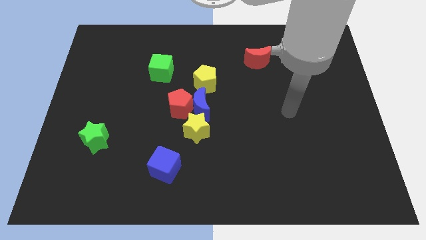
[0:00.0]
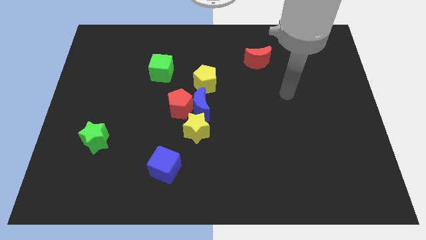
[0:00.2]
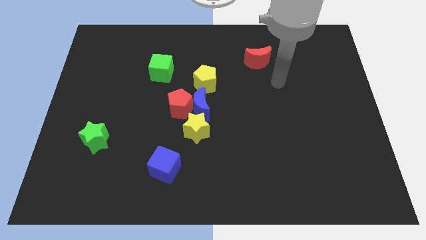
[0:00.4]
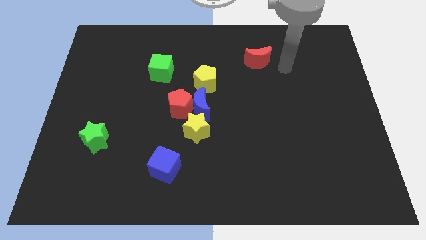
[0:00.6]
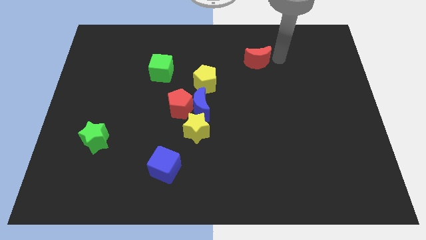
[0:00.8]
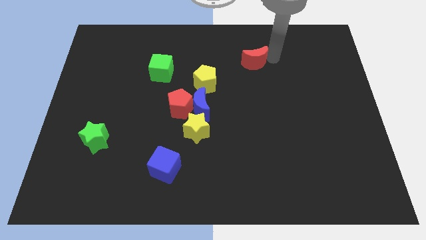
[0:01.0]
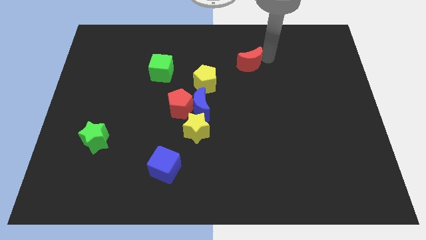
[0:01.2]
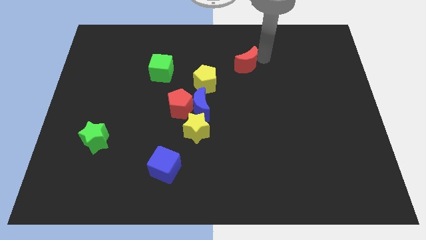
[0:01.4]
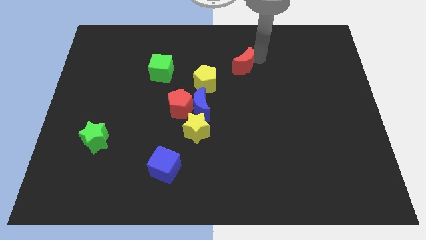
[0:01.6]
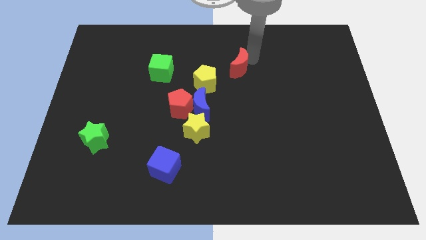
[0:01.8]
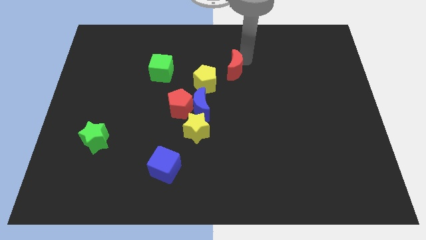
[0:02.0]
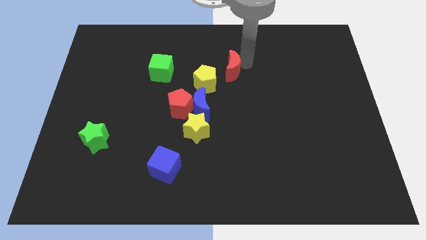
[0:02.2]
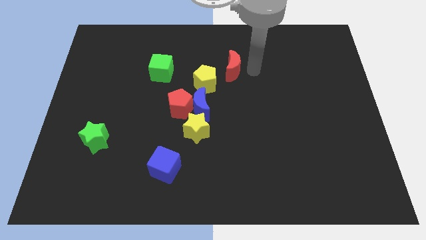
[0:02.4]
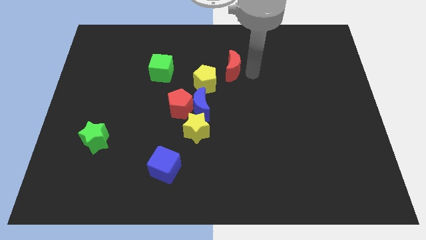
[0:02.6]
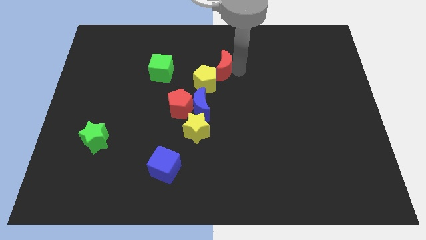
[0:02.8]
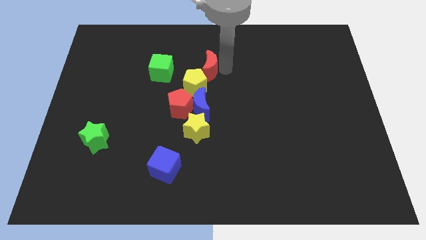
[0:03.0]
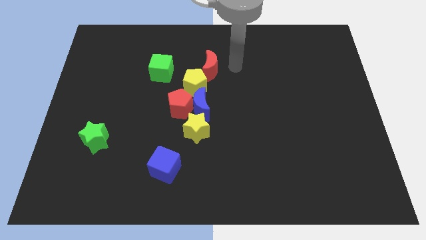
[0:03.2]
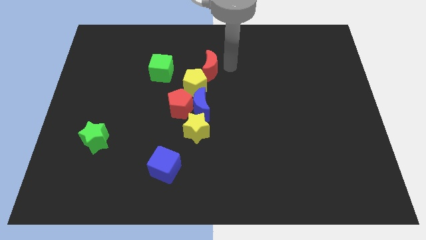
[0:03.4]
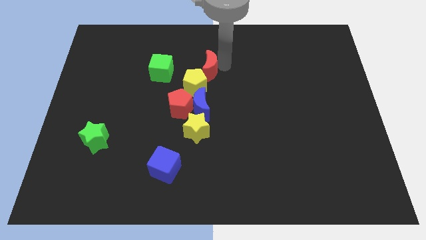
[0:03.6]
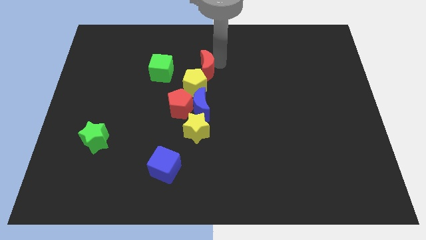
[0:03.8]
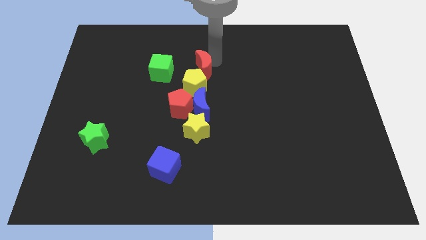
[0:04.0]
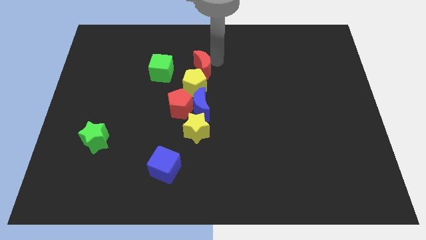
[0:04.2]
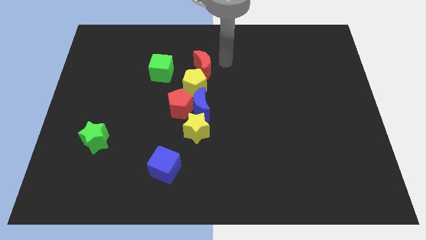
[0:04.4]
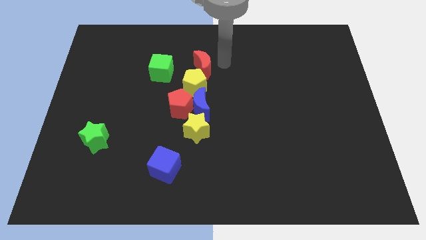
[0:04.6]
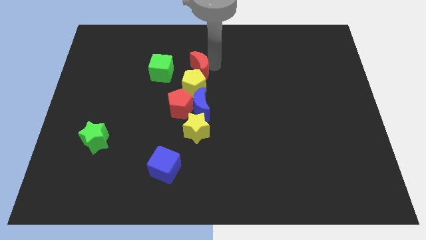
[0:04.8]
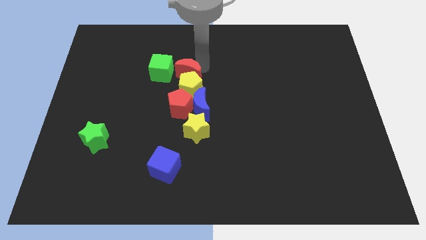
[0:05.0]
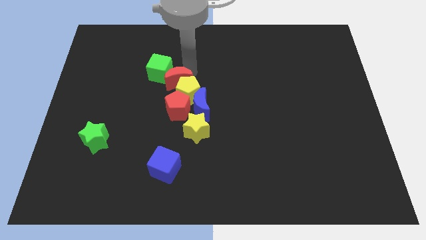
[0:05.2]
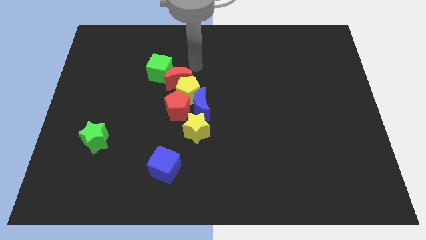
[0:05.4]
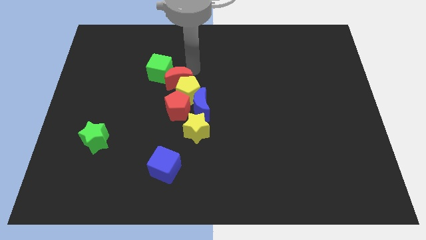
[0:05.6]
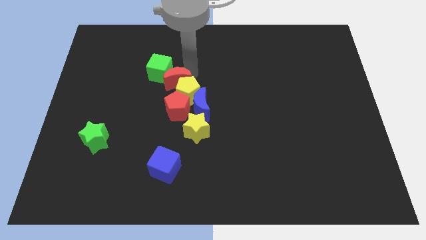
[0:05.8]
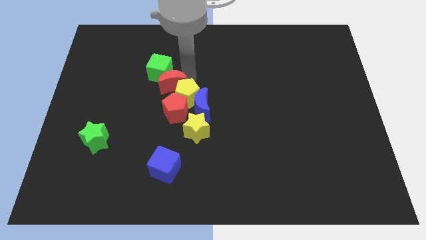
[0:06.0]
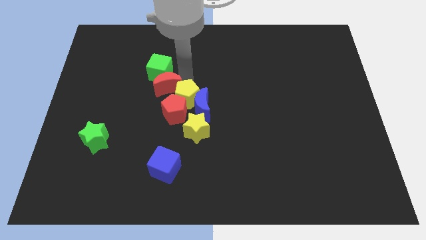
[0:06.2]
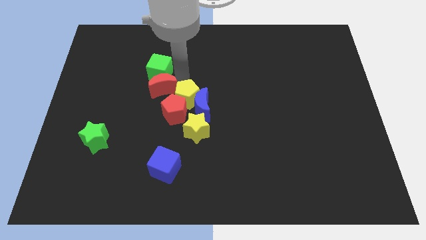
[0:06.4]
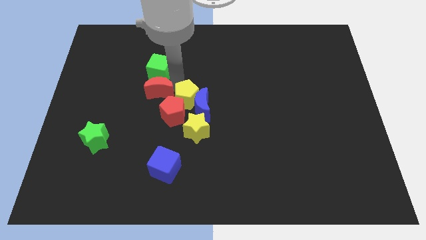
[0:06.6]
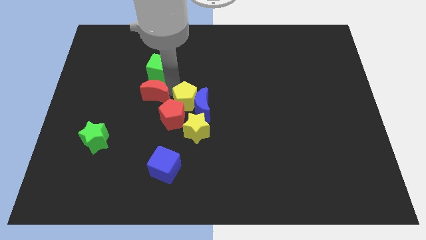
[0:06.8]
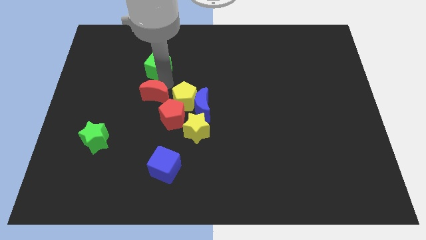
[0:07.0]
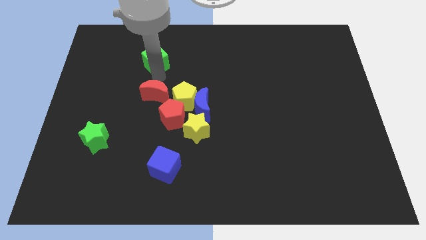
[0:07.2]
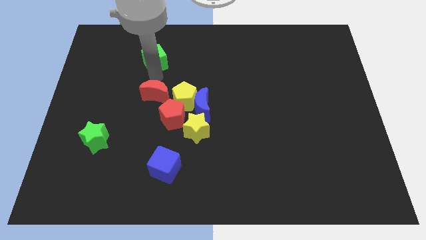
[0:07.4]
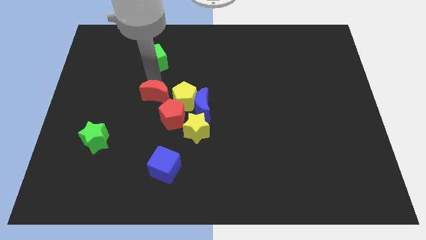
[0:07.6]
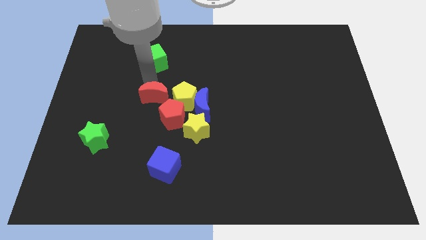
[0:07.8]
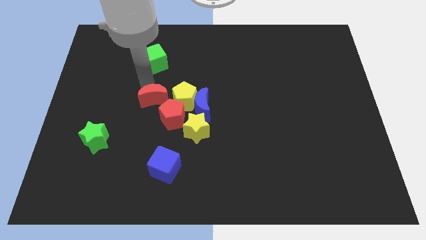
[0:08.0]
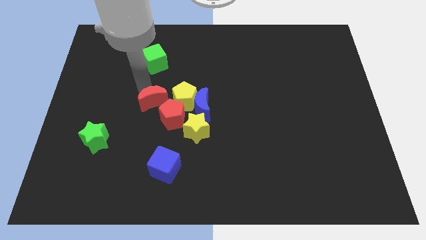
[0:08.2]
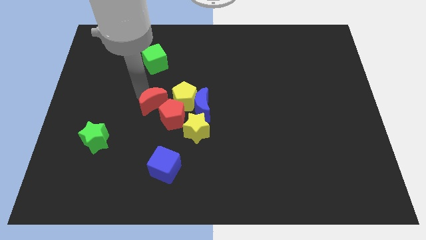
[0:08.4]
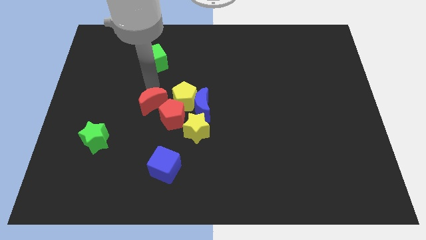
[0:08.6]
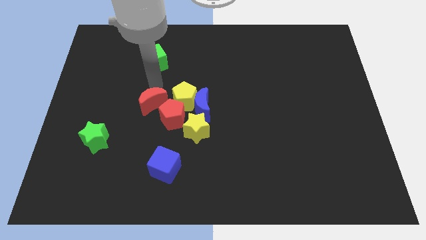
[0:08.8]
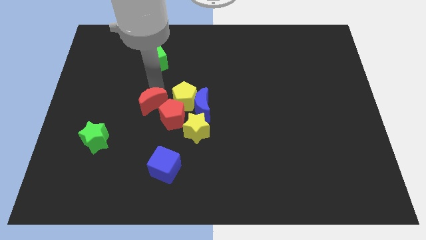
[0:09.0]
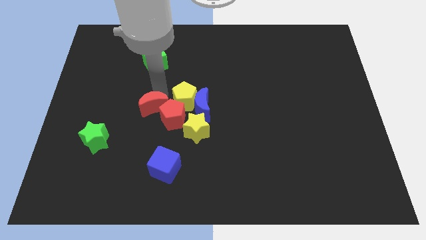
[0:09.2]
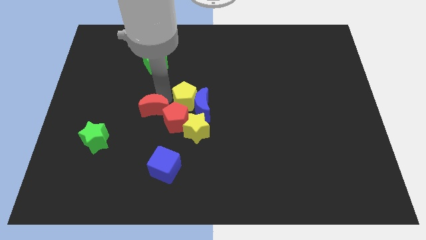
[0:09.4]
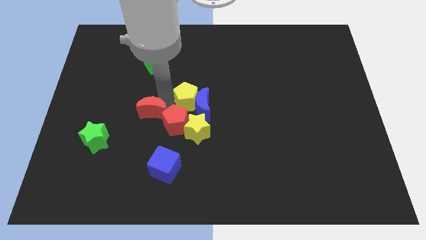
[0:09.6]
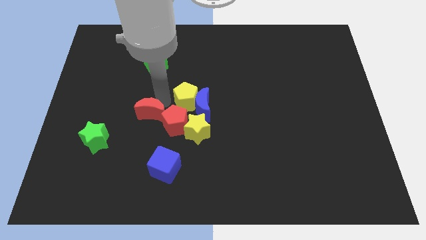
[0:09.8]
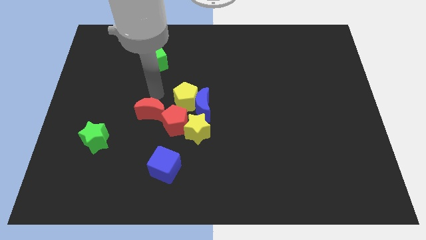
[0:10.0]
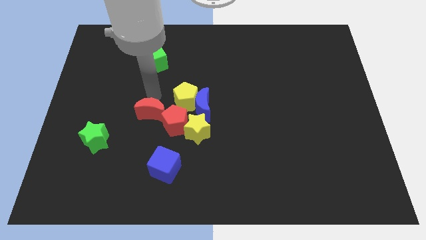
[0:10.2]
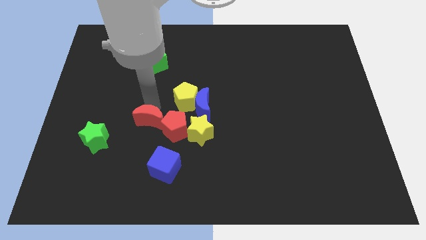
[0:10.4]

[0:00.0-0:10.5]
push the red moon to the left side of the yellow star

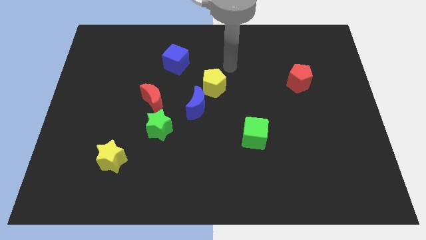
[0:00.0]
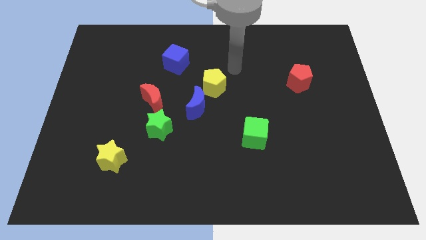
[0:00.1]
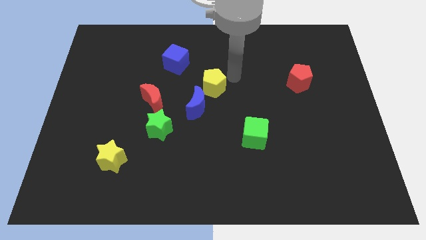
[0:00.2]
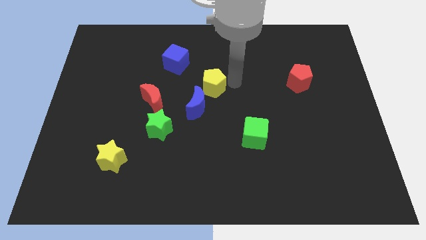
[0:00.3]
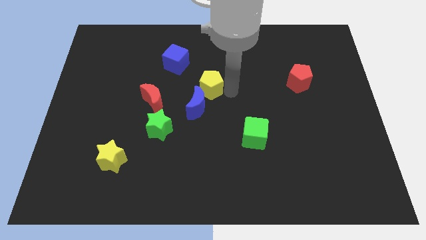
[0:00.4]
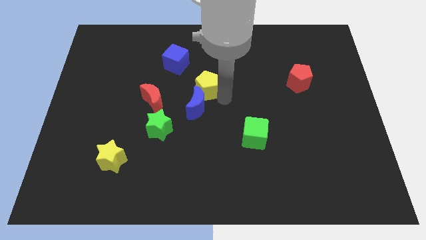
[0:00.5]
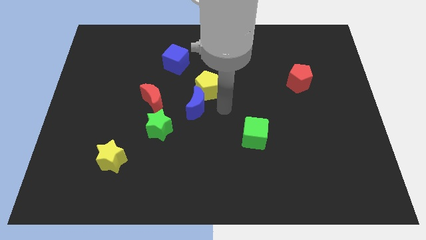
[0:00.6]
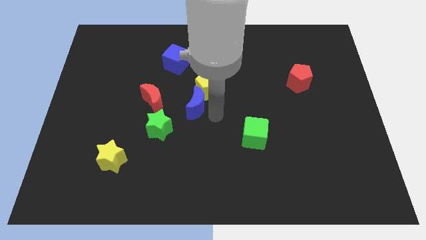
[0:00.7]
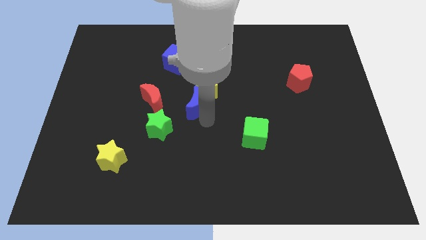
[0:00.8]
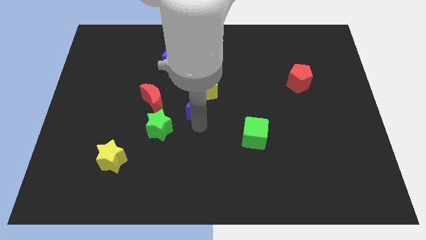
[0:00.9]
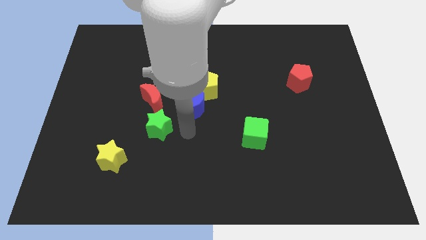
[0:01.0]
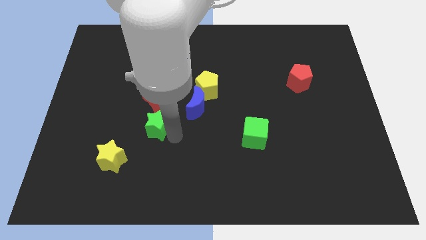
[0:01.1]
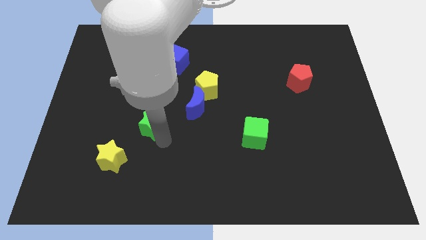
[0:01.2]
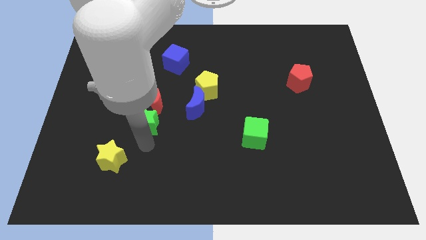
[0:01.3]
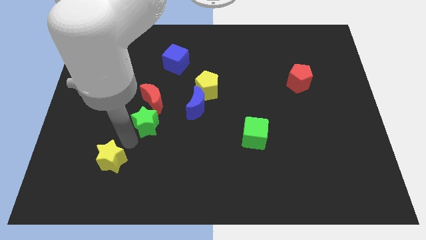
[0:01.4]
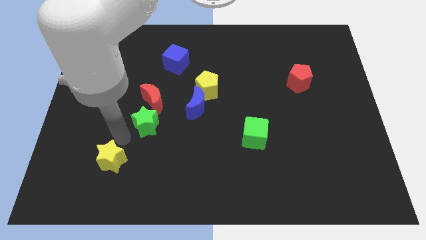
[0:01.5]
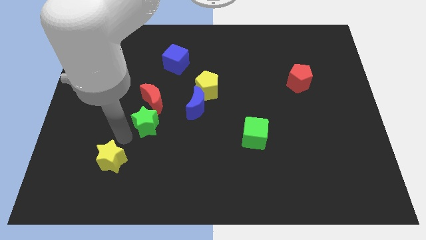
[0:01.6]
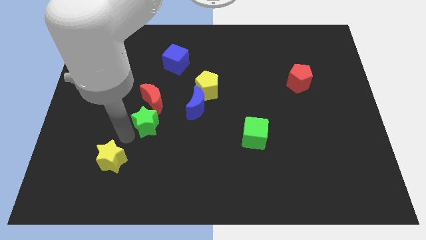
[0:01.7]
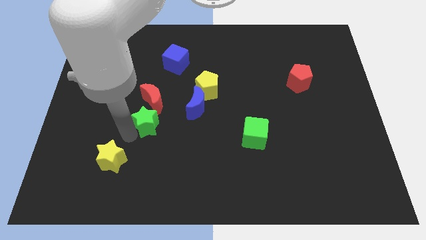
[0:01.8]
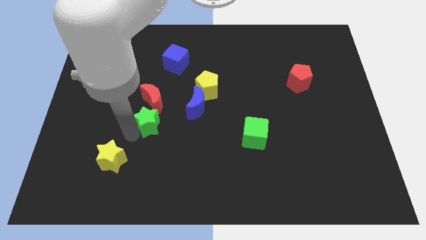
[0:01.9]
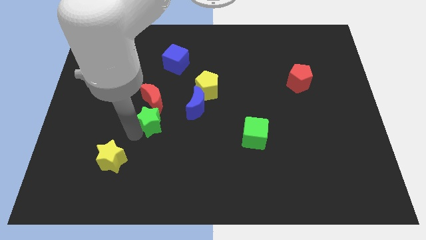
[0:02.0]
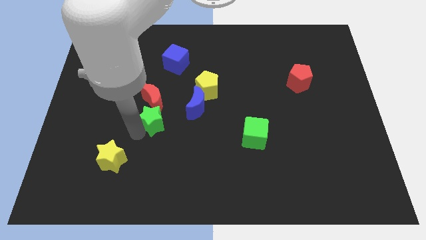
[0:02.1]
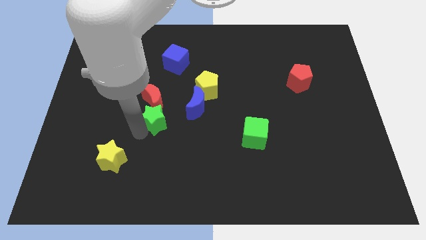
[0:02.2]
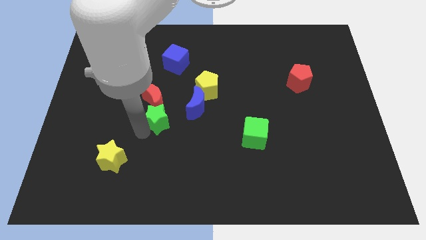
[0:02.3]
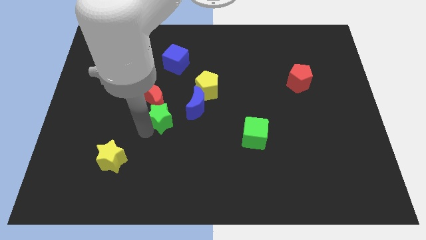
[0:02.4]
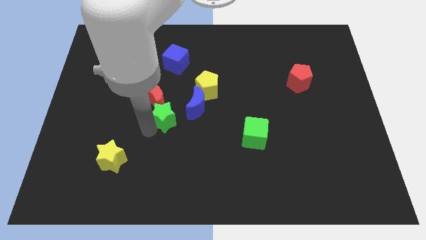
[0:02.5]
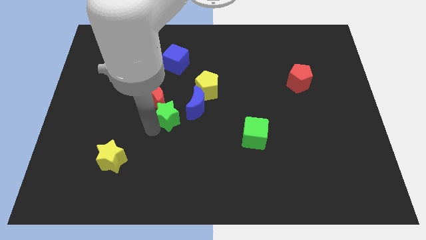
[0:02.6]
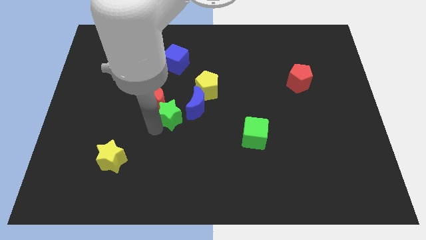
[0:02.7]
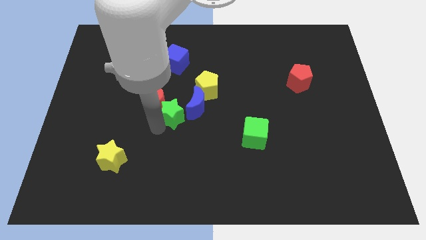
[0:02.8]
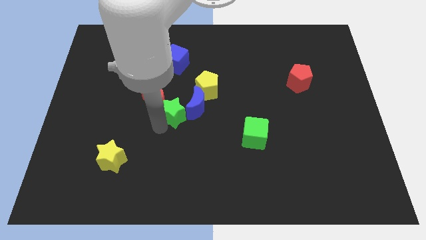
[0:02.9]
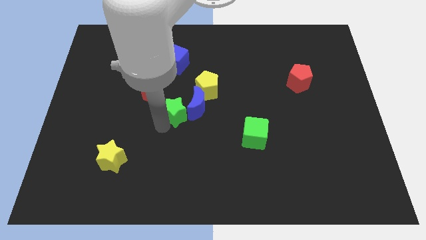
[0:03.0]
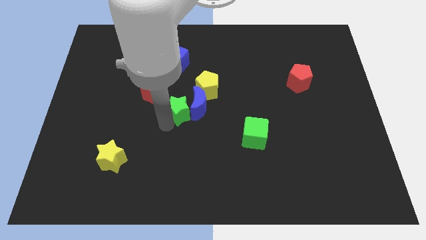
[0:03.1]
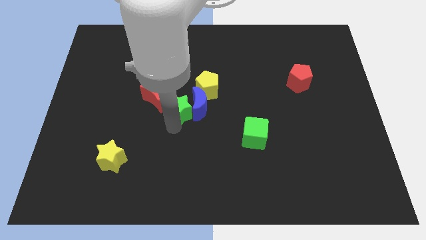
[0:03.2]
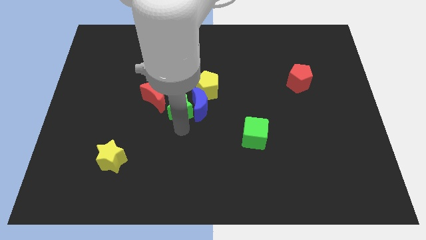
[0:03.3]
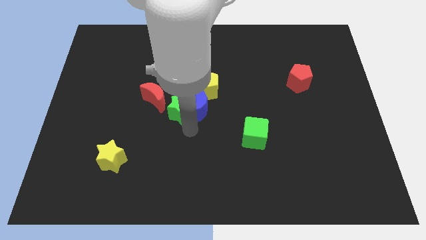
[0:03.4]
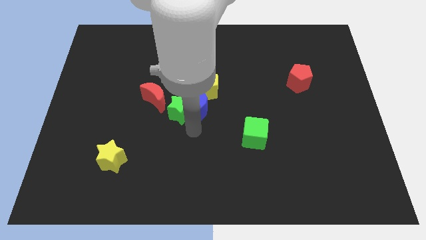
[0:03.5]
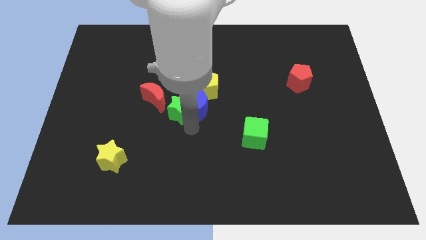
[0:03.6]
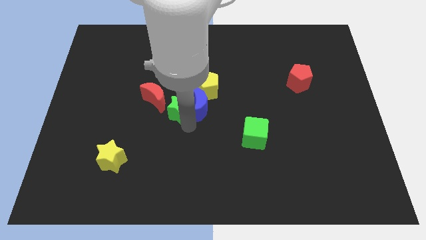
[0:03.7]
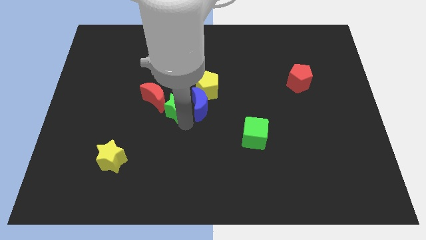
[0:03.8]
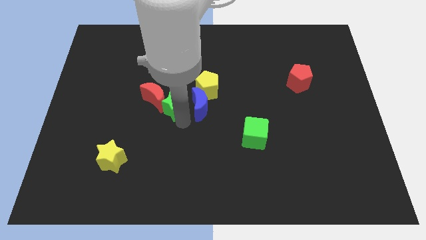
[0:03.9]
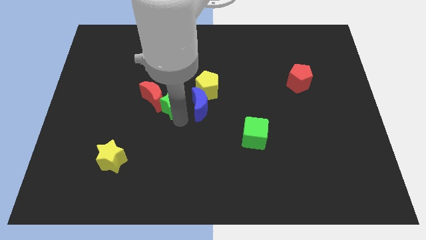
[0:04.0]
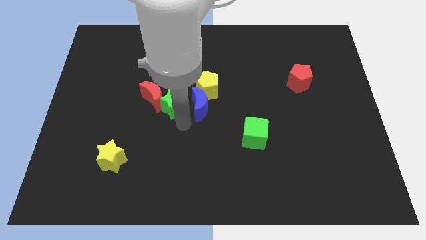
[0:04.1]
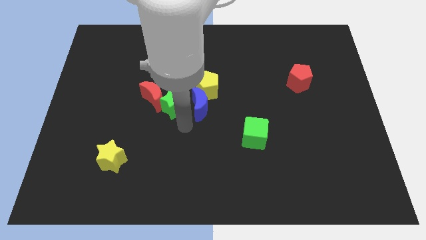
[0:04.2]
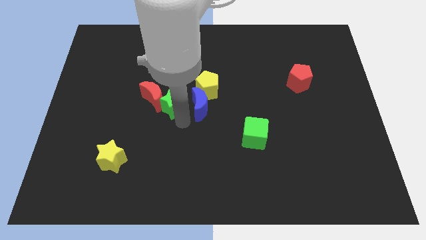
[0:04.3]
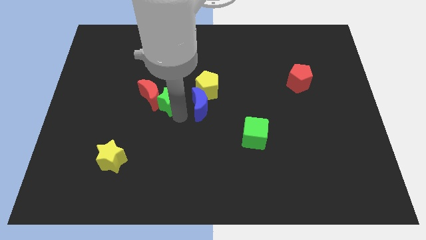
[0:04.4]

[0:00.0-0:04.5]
push the green star left of the yellow pentagon
